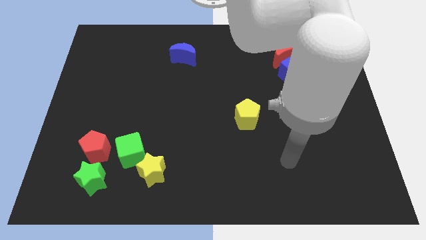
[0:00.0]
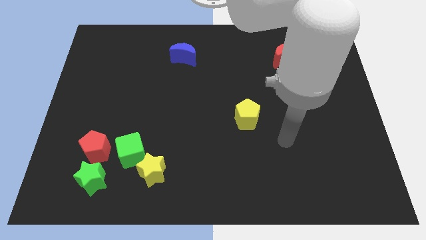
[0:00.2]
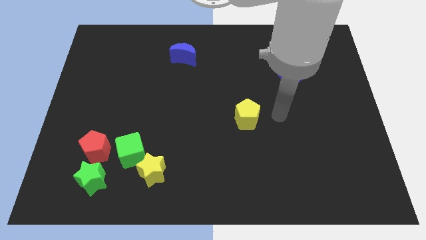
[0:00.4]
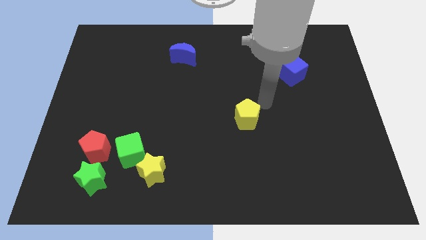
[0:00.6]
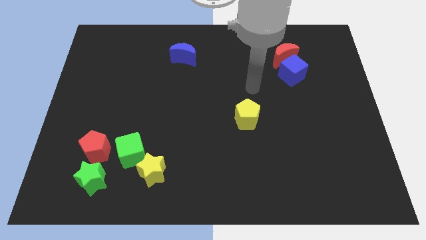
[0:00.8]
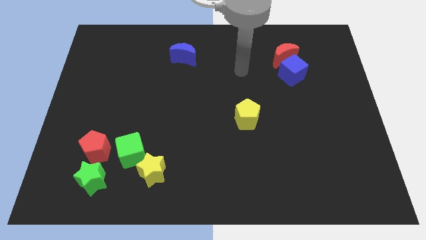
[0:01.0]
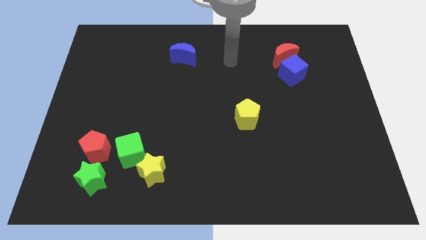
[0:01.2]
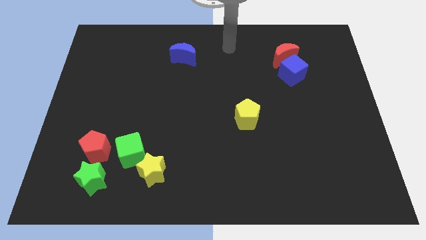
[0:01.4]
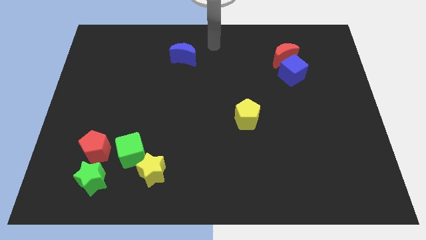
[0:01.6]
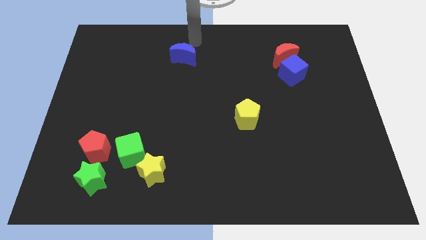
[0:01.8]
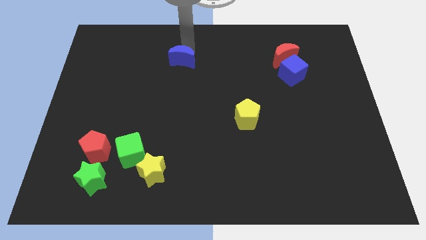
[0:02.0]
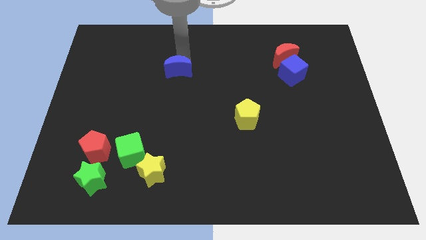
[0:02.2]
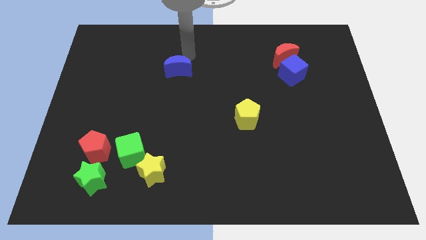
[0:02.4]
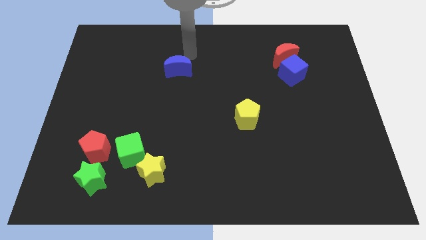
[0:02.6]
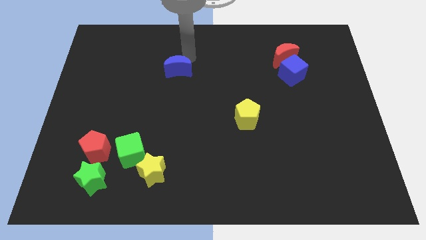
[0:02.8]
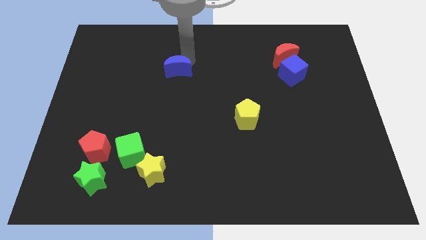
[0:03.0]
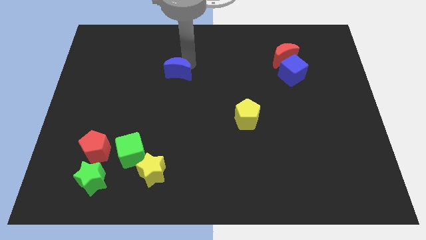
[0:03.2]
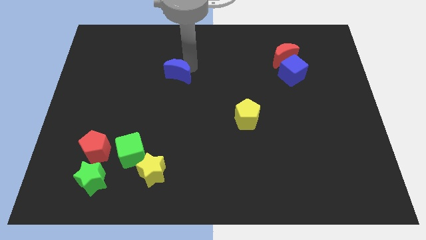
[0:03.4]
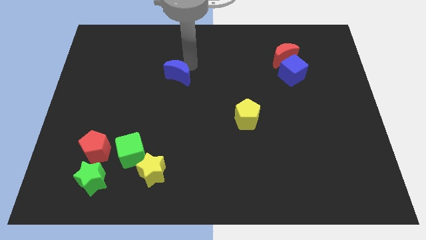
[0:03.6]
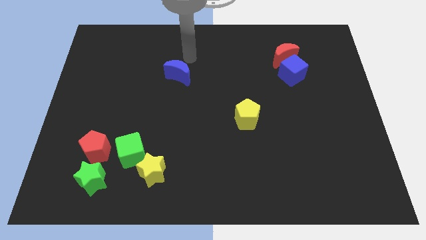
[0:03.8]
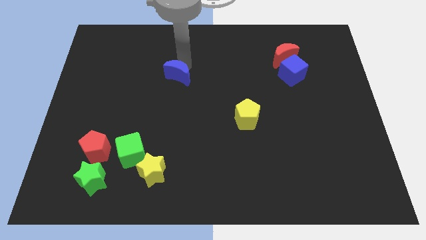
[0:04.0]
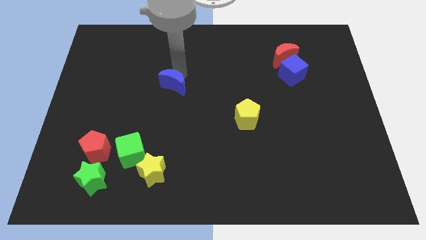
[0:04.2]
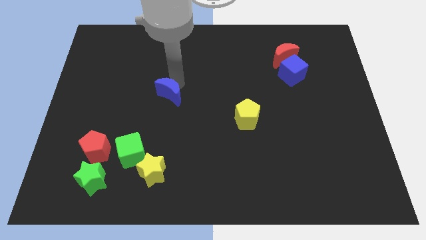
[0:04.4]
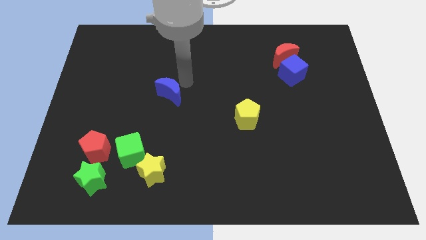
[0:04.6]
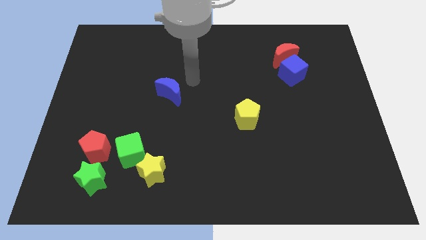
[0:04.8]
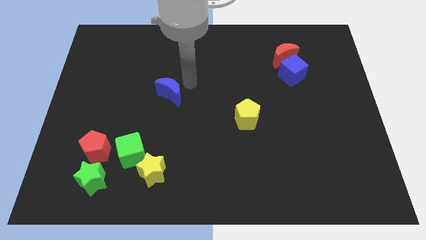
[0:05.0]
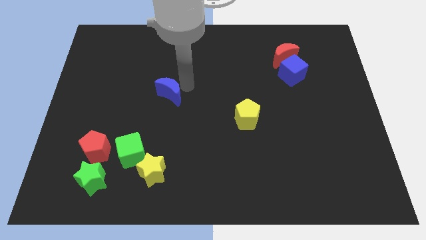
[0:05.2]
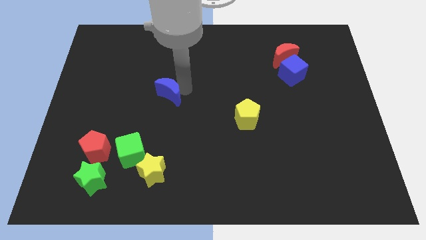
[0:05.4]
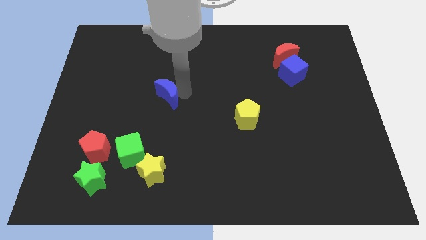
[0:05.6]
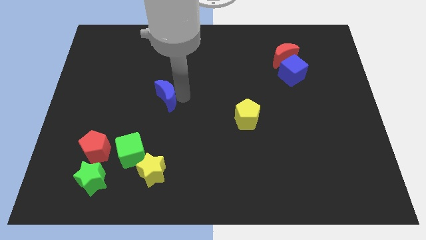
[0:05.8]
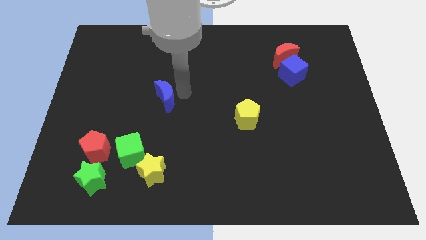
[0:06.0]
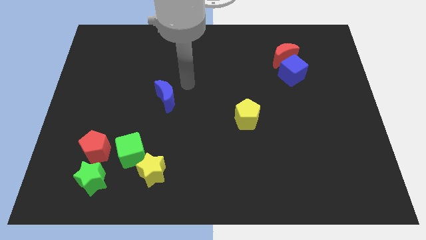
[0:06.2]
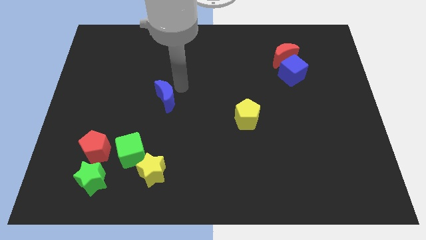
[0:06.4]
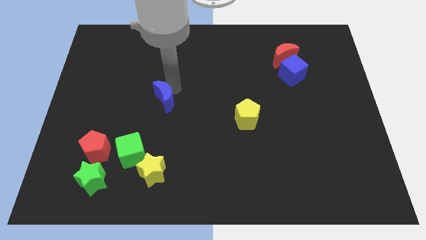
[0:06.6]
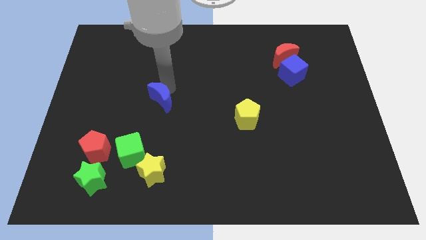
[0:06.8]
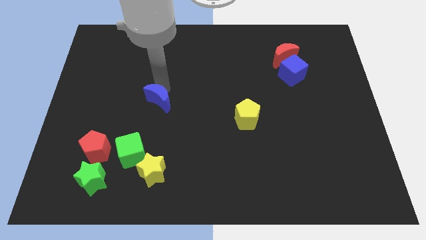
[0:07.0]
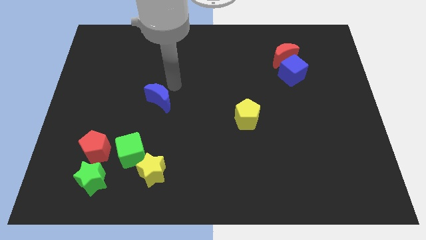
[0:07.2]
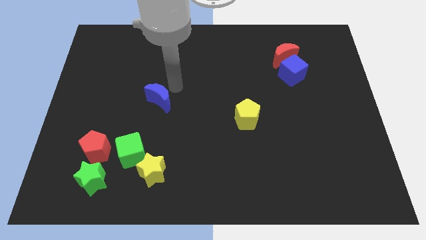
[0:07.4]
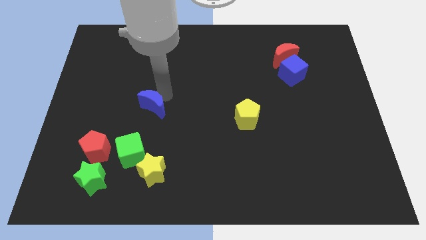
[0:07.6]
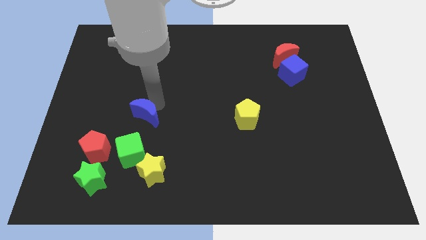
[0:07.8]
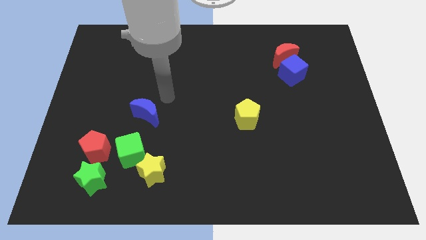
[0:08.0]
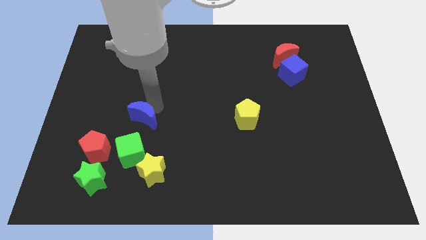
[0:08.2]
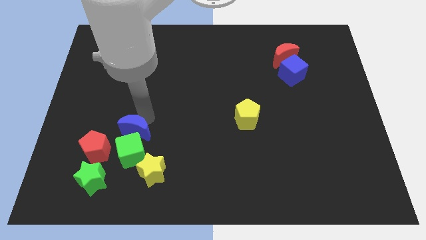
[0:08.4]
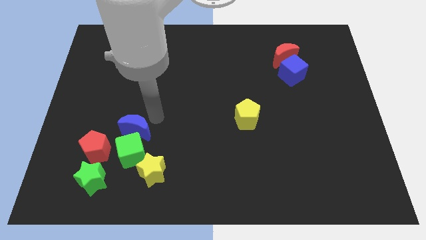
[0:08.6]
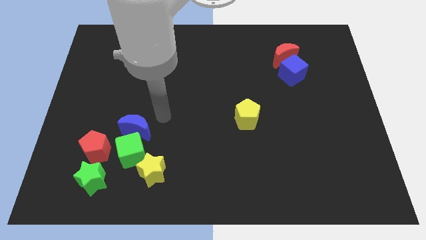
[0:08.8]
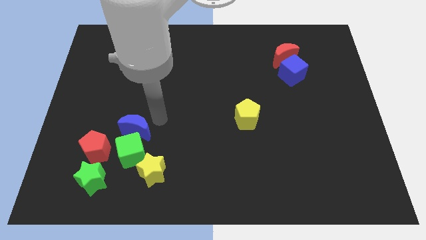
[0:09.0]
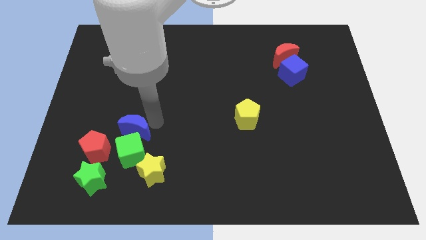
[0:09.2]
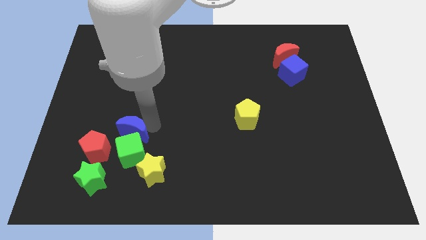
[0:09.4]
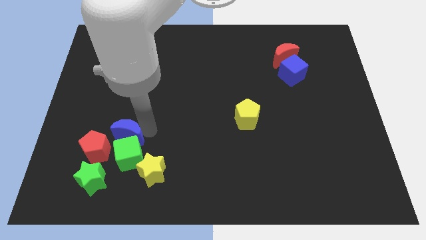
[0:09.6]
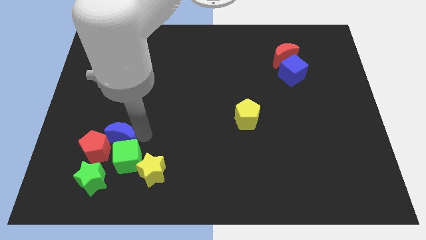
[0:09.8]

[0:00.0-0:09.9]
move the blue moon to the red pentagon

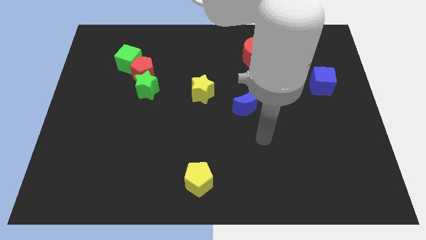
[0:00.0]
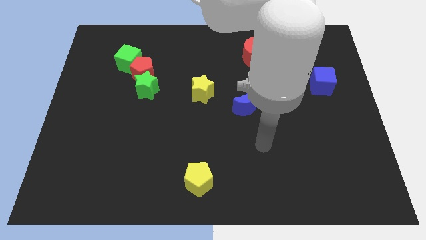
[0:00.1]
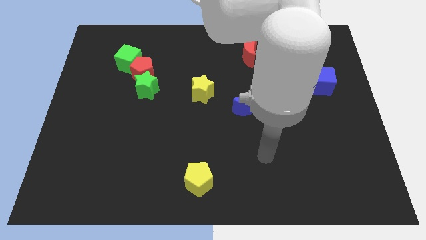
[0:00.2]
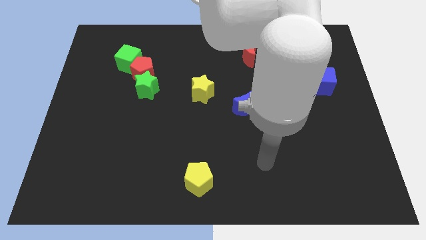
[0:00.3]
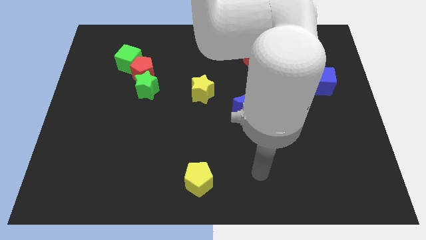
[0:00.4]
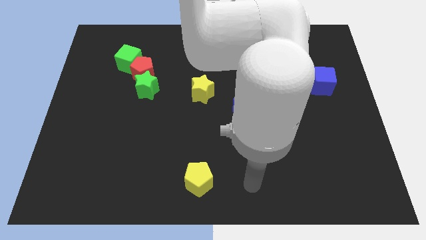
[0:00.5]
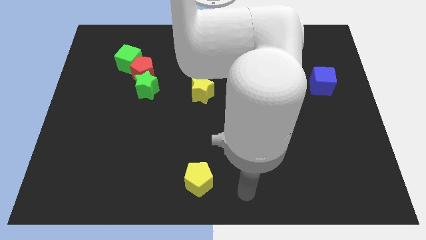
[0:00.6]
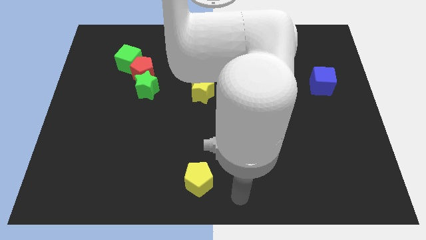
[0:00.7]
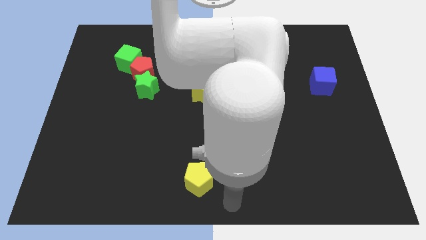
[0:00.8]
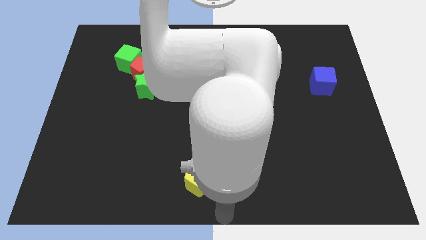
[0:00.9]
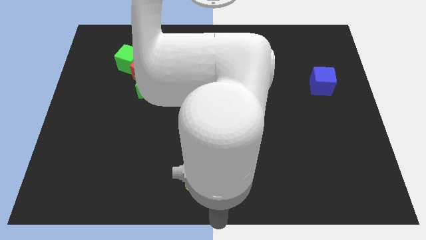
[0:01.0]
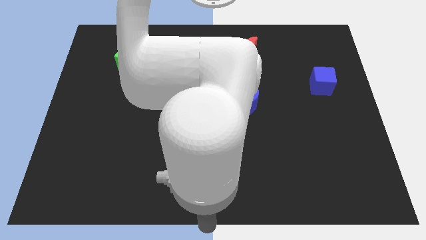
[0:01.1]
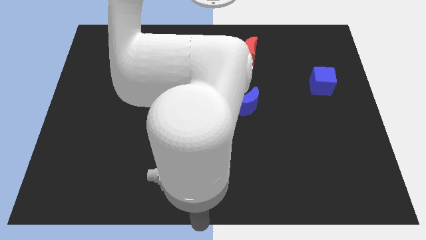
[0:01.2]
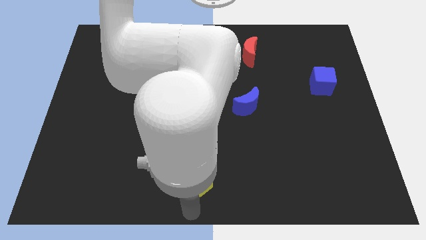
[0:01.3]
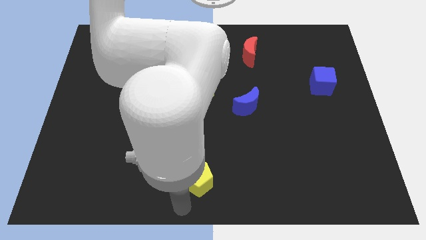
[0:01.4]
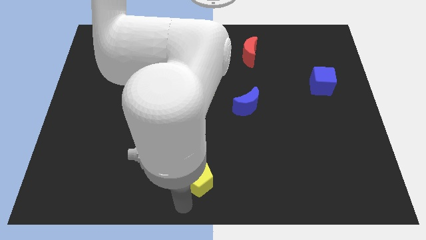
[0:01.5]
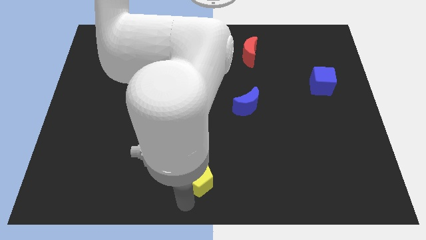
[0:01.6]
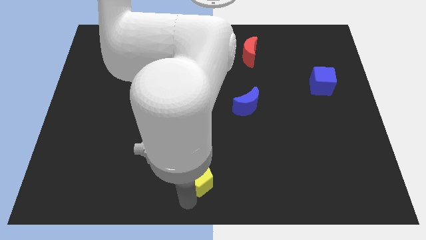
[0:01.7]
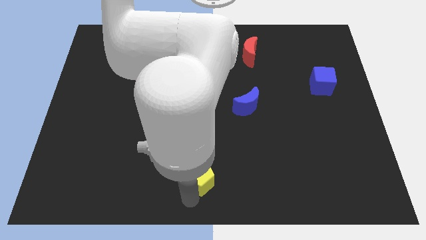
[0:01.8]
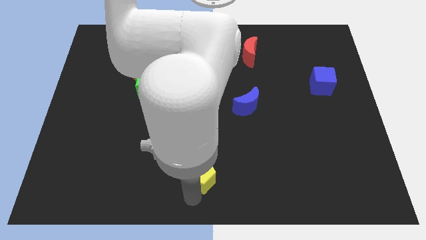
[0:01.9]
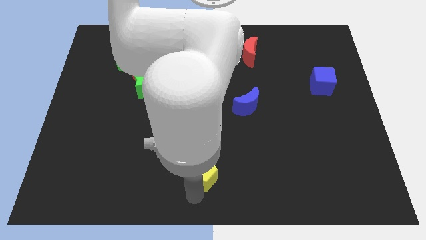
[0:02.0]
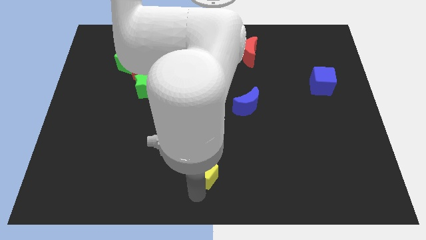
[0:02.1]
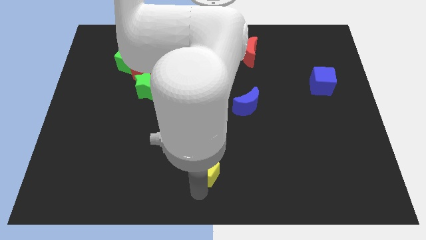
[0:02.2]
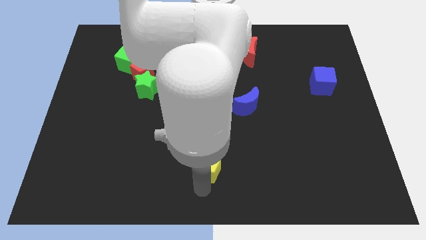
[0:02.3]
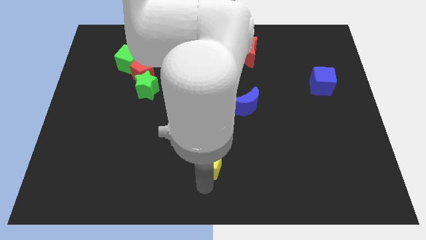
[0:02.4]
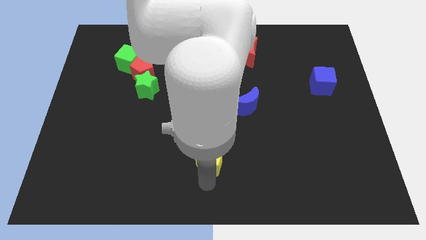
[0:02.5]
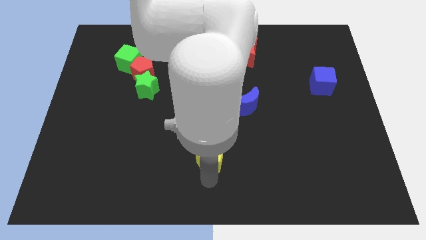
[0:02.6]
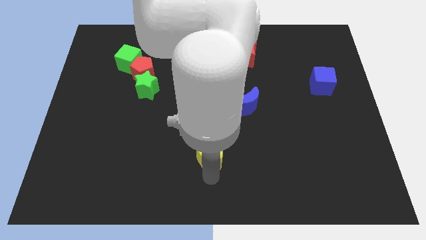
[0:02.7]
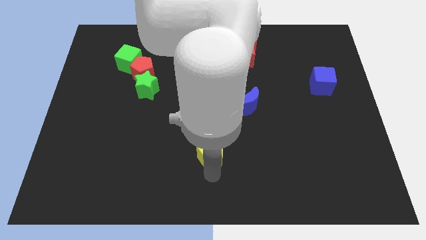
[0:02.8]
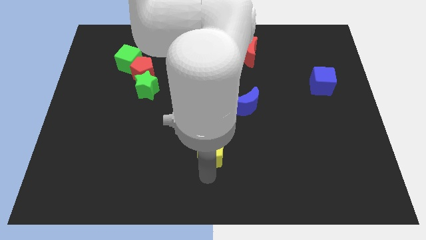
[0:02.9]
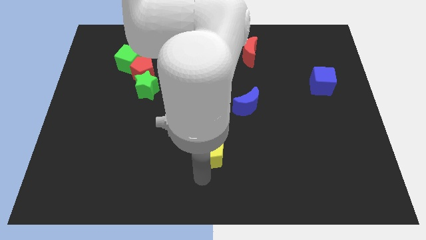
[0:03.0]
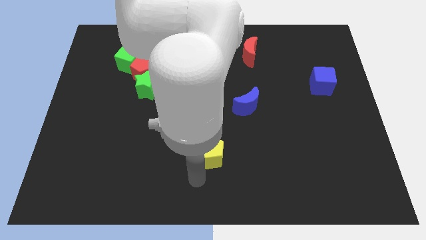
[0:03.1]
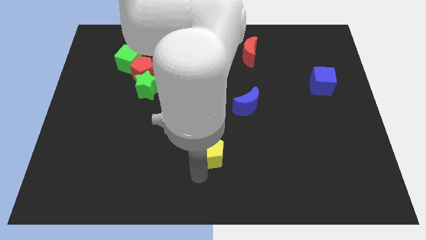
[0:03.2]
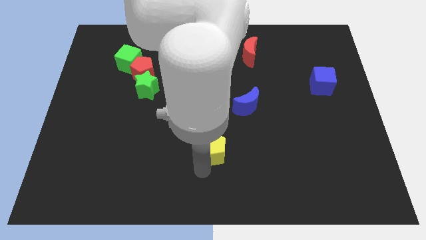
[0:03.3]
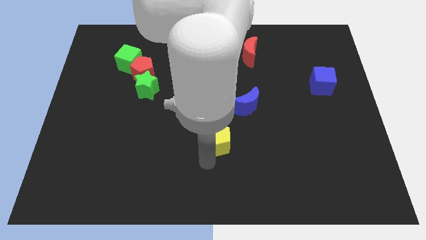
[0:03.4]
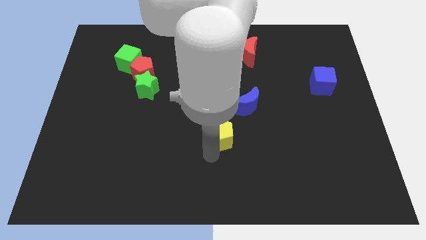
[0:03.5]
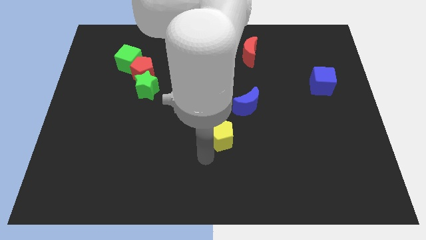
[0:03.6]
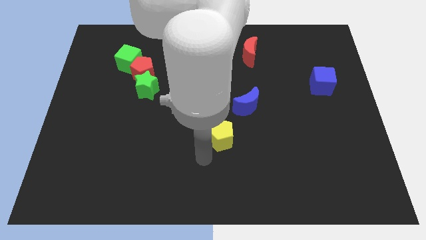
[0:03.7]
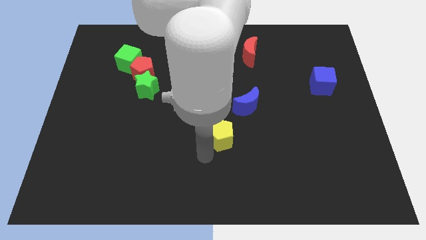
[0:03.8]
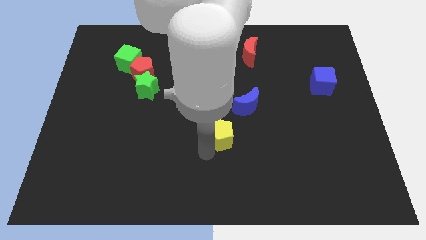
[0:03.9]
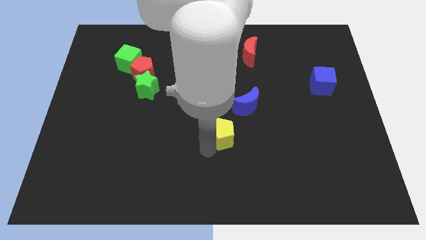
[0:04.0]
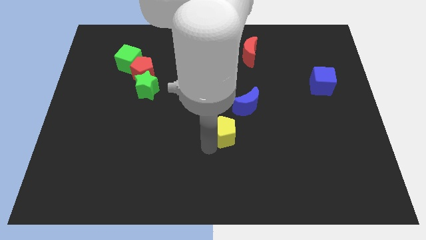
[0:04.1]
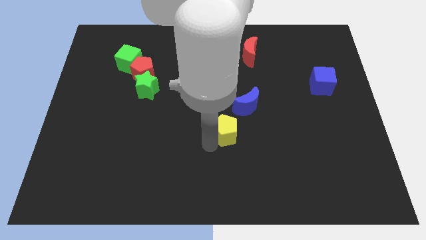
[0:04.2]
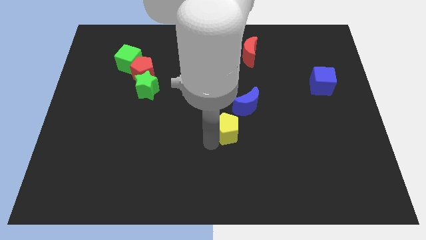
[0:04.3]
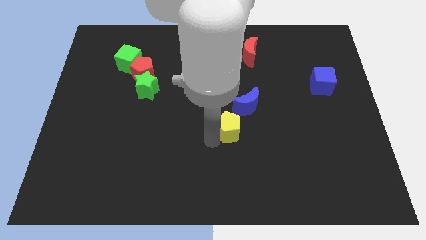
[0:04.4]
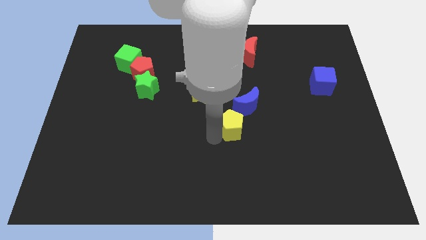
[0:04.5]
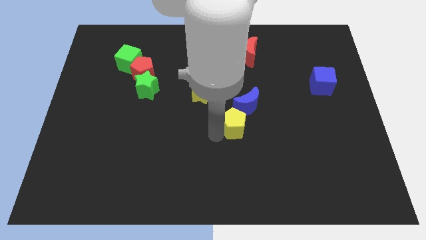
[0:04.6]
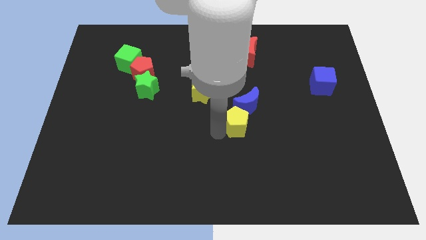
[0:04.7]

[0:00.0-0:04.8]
move the yellow pentagon next to the blue moon
